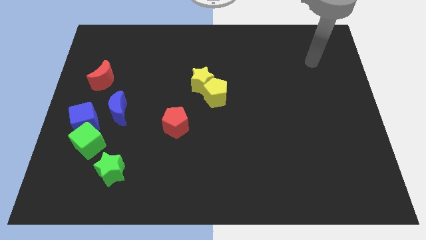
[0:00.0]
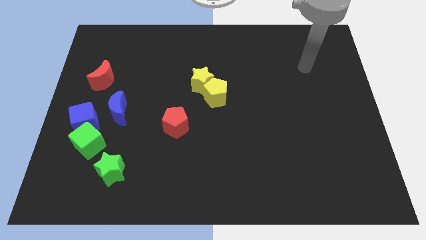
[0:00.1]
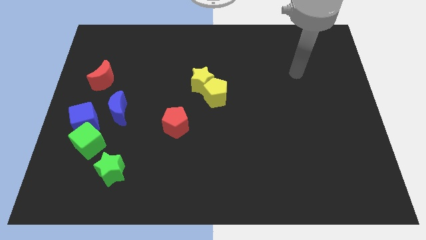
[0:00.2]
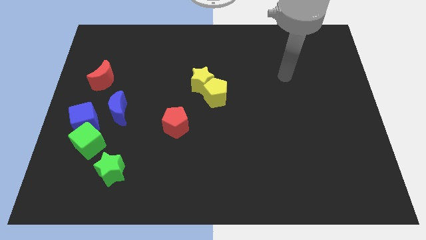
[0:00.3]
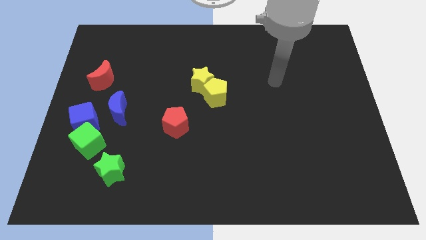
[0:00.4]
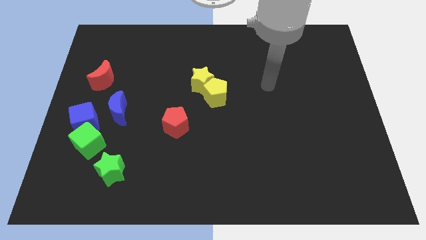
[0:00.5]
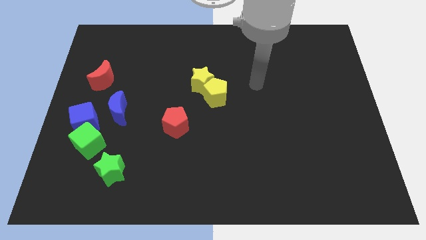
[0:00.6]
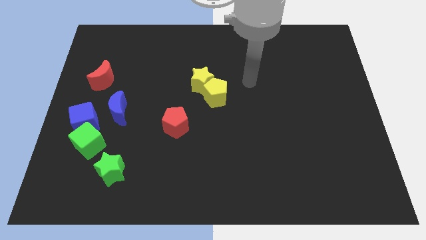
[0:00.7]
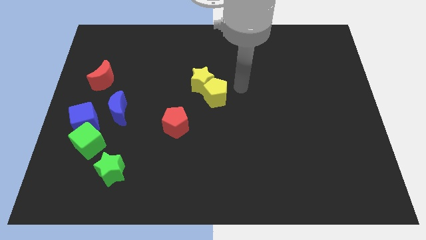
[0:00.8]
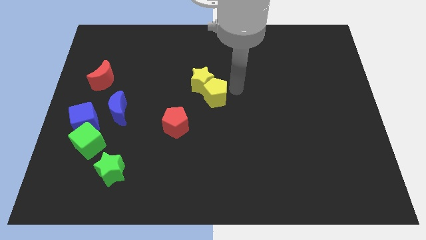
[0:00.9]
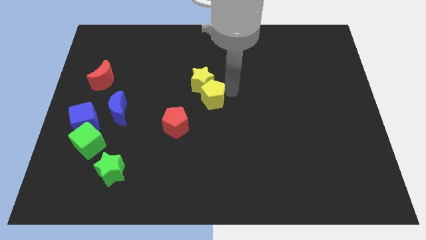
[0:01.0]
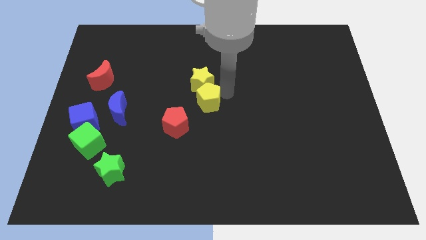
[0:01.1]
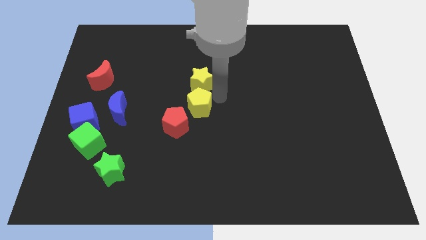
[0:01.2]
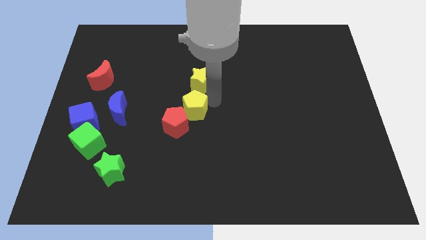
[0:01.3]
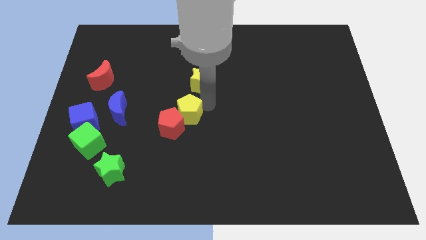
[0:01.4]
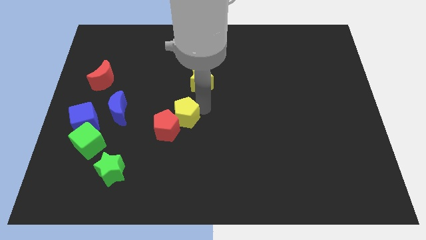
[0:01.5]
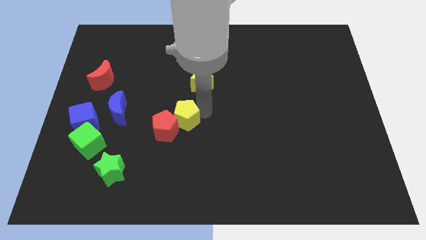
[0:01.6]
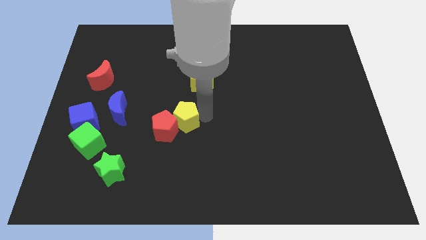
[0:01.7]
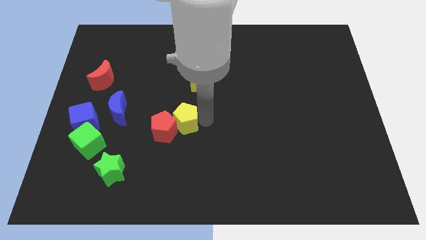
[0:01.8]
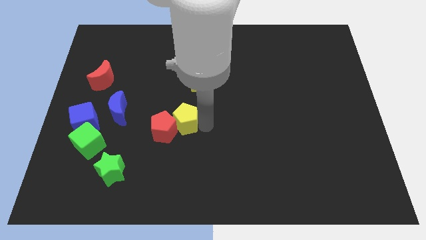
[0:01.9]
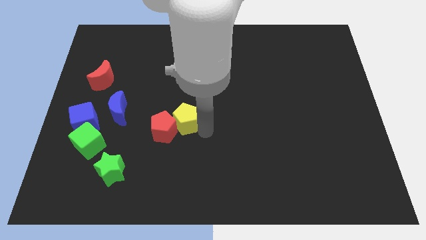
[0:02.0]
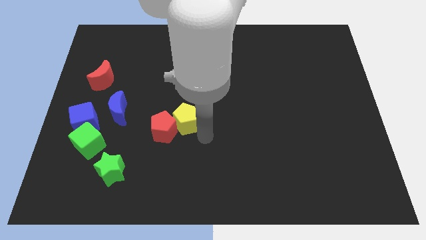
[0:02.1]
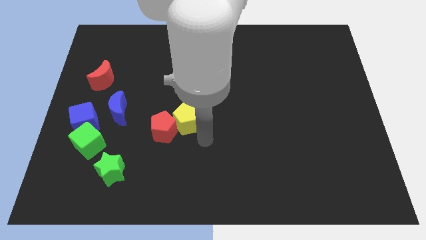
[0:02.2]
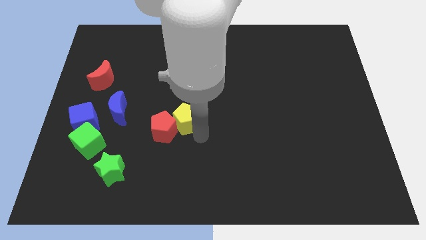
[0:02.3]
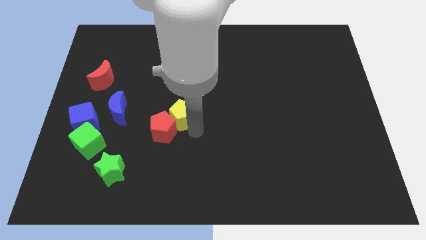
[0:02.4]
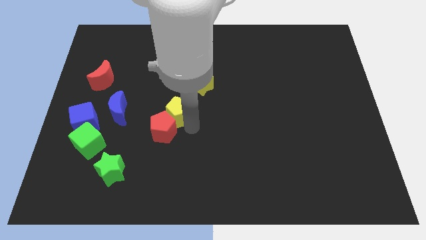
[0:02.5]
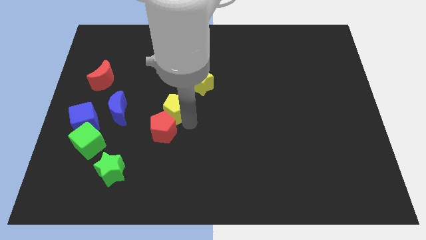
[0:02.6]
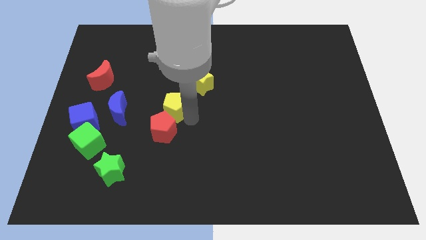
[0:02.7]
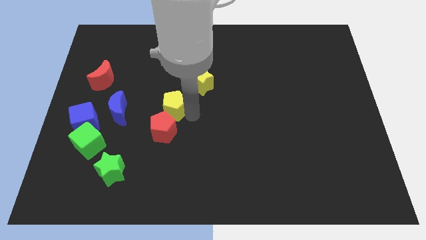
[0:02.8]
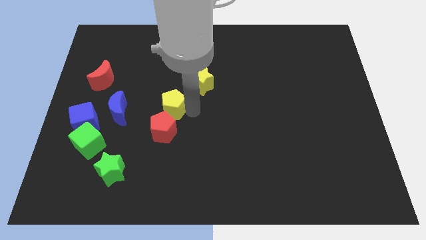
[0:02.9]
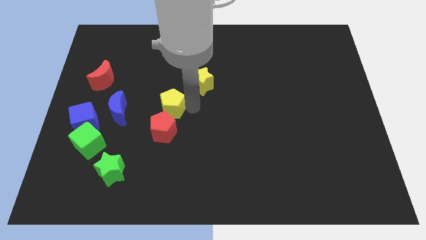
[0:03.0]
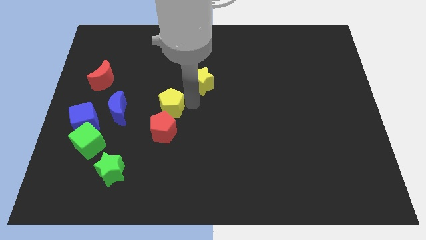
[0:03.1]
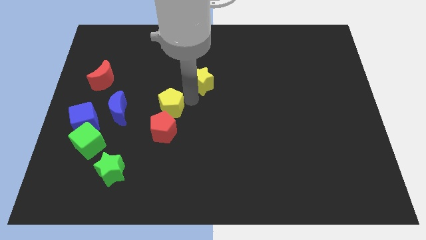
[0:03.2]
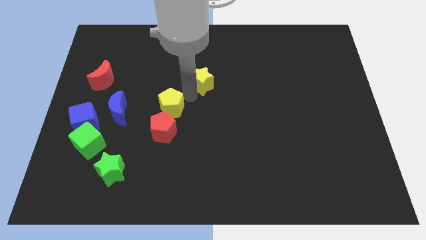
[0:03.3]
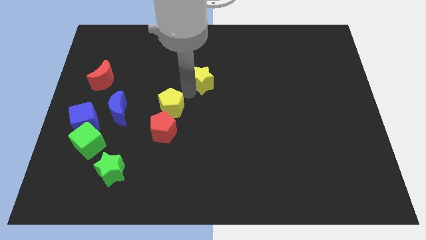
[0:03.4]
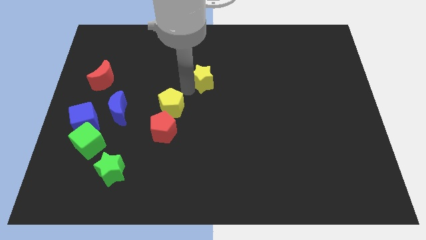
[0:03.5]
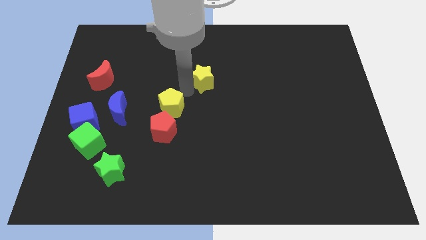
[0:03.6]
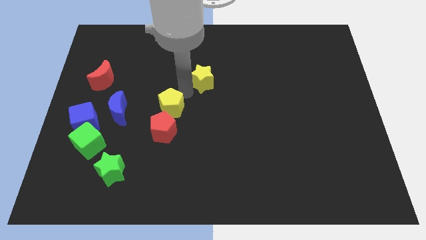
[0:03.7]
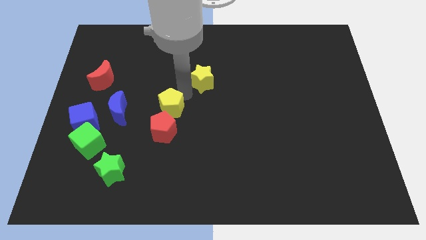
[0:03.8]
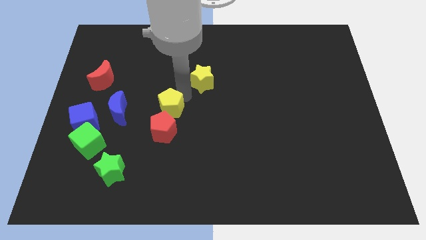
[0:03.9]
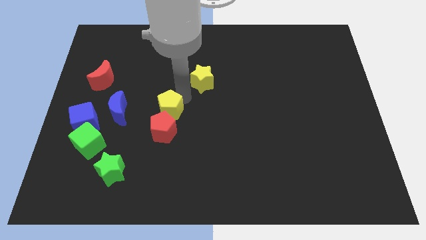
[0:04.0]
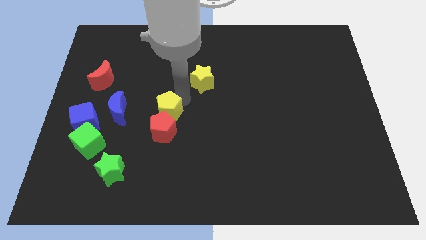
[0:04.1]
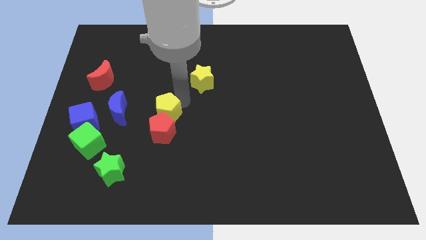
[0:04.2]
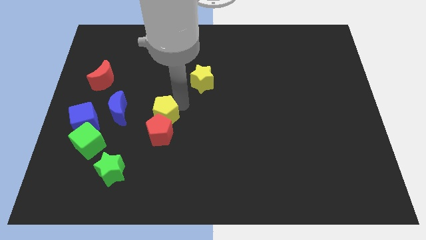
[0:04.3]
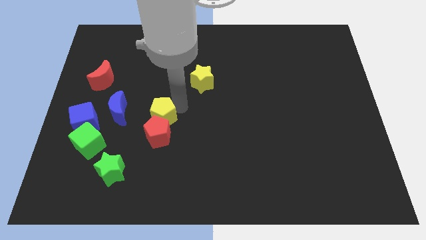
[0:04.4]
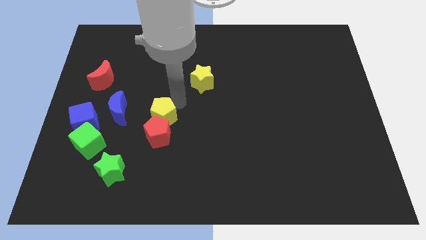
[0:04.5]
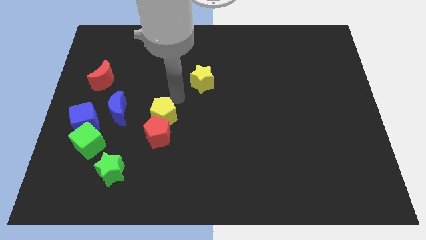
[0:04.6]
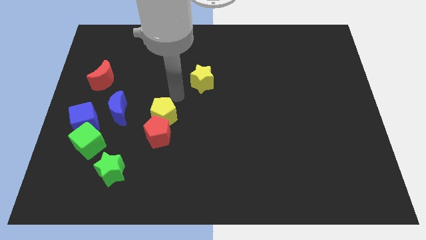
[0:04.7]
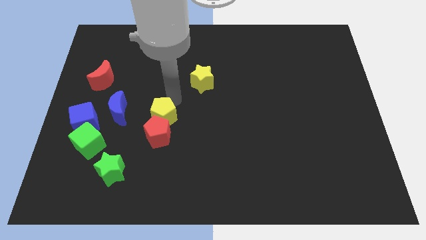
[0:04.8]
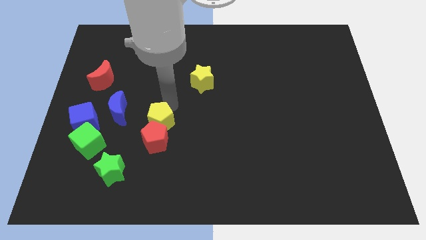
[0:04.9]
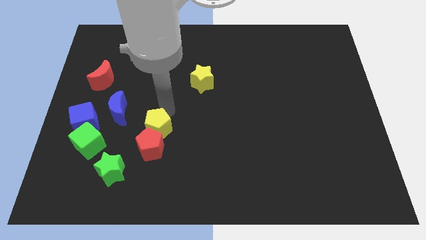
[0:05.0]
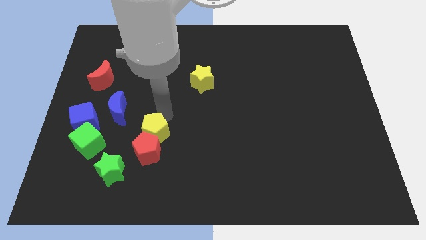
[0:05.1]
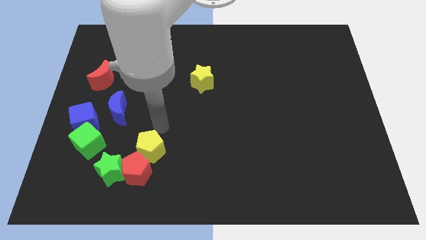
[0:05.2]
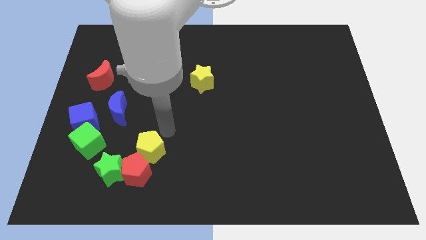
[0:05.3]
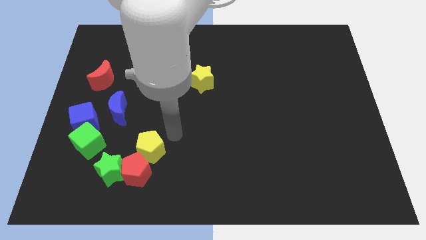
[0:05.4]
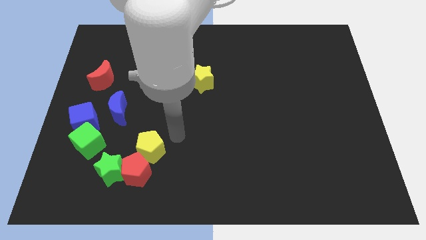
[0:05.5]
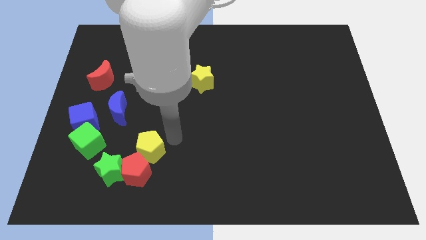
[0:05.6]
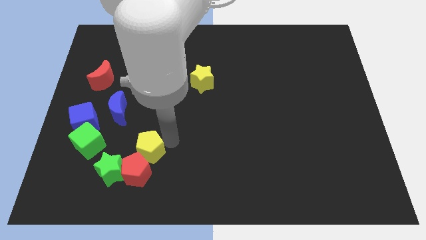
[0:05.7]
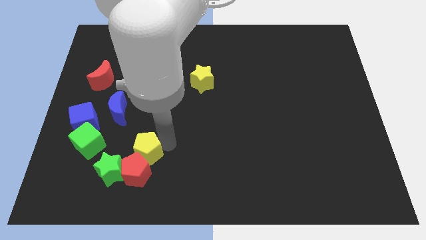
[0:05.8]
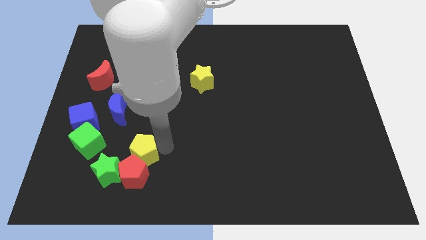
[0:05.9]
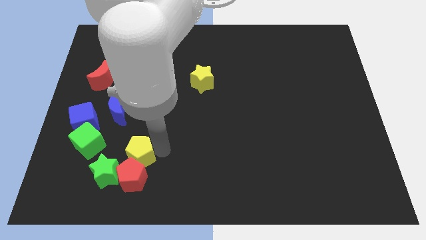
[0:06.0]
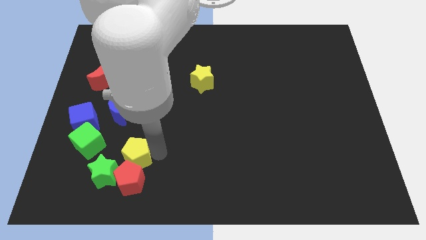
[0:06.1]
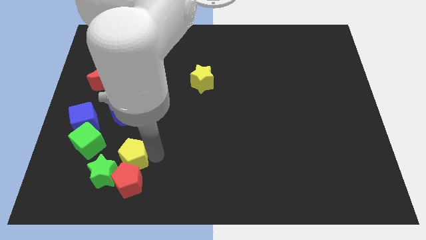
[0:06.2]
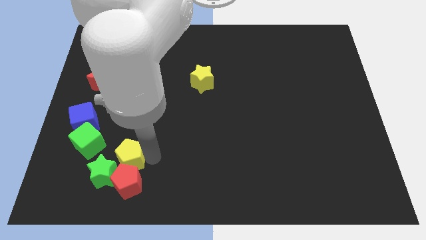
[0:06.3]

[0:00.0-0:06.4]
slide the yellow pentagon next to the green star
